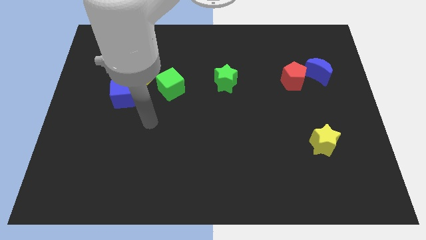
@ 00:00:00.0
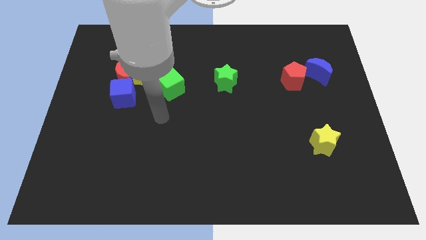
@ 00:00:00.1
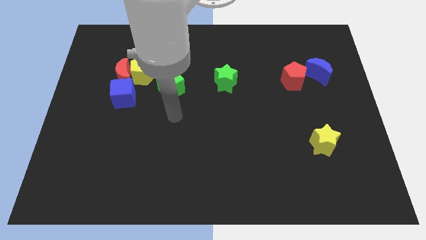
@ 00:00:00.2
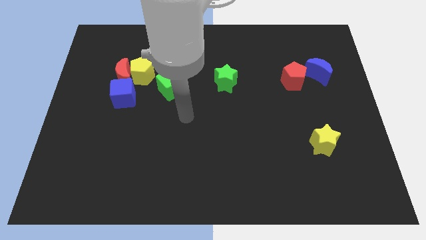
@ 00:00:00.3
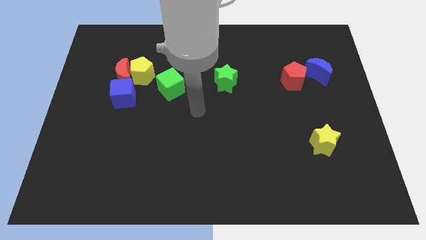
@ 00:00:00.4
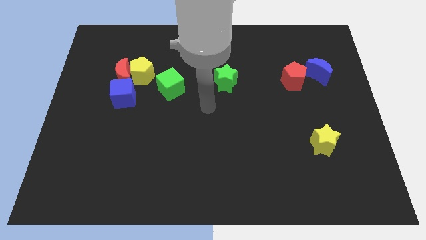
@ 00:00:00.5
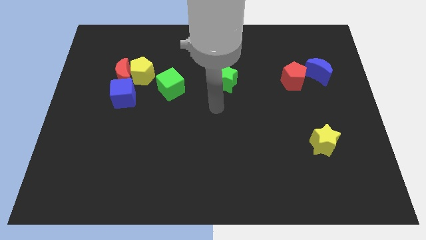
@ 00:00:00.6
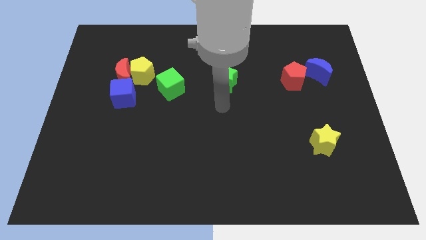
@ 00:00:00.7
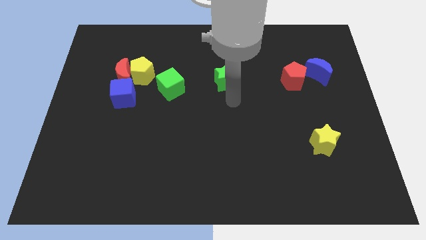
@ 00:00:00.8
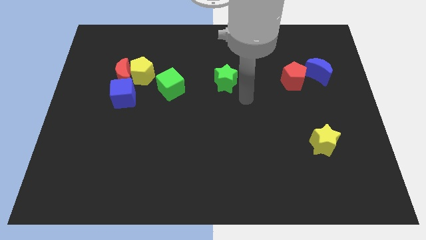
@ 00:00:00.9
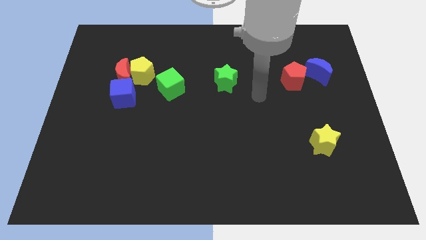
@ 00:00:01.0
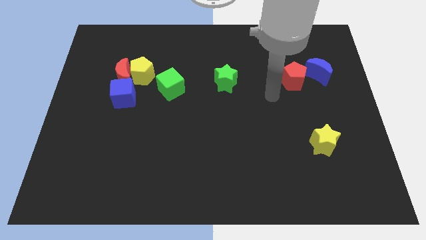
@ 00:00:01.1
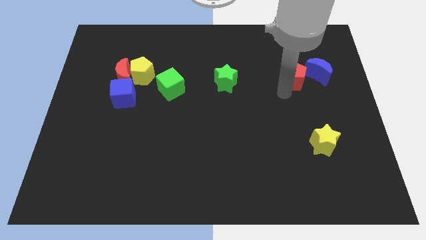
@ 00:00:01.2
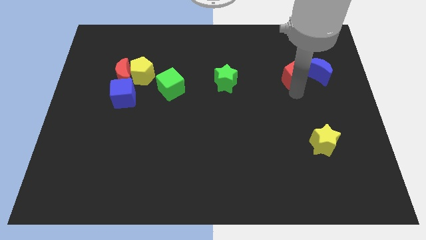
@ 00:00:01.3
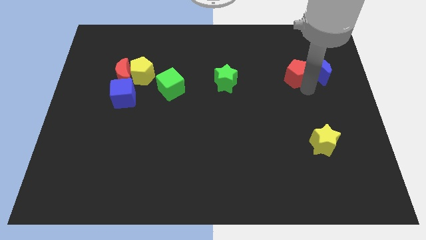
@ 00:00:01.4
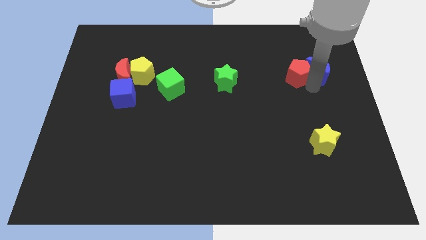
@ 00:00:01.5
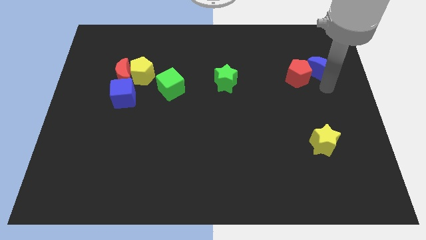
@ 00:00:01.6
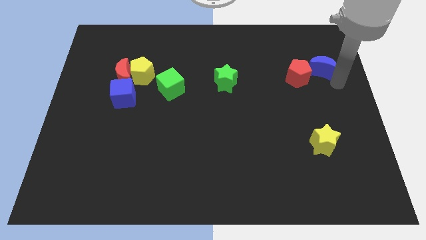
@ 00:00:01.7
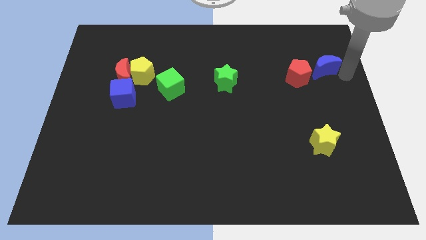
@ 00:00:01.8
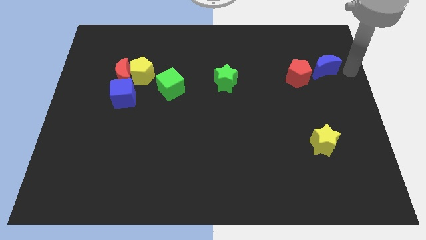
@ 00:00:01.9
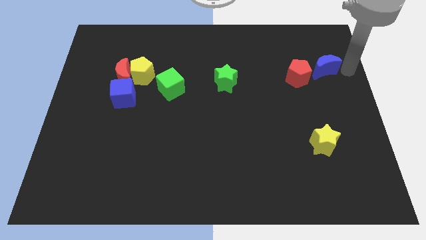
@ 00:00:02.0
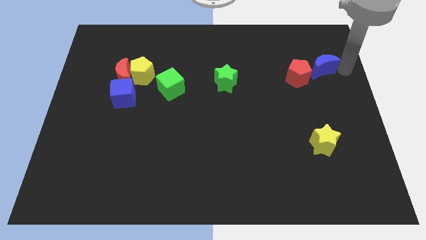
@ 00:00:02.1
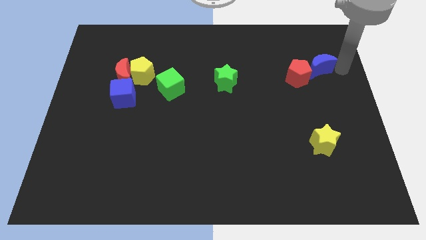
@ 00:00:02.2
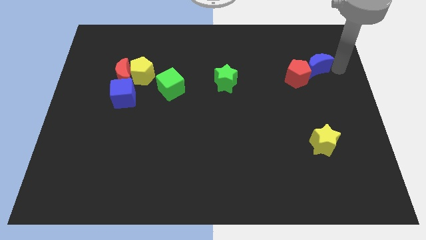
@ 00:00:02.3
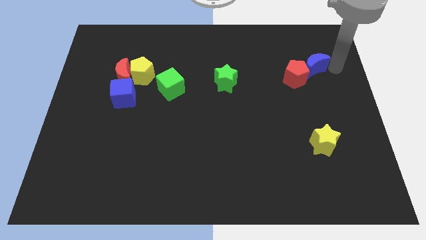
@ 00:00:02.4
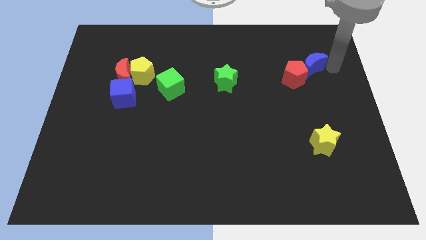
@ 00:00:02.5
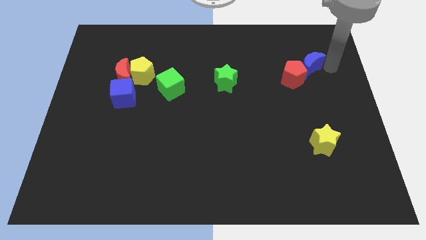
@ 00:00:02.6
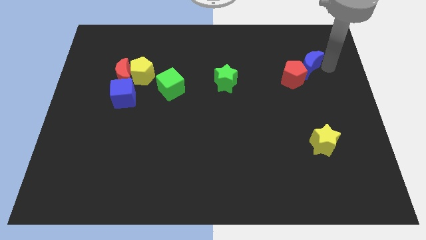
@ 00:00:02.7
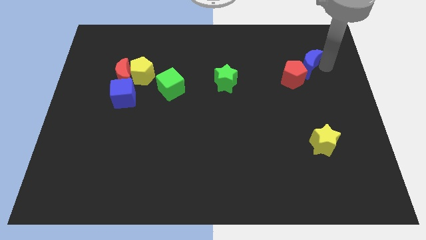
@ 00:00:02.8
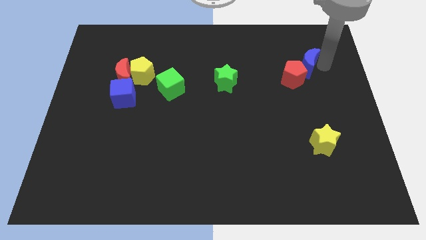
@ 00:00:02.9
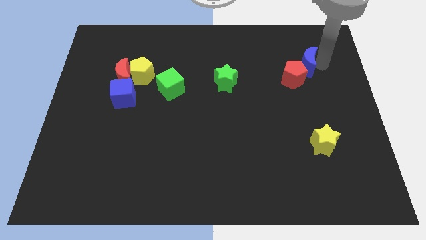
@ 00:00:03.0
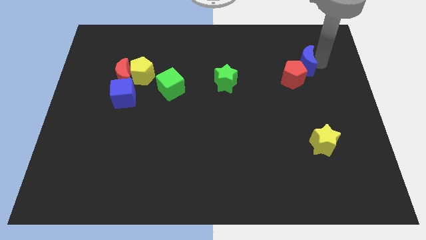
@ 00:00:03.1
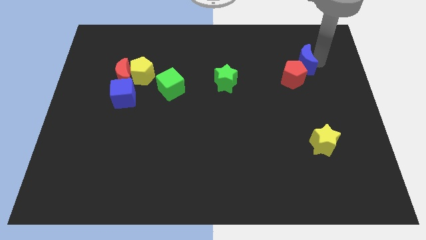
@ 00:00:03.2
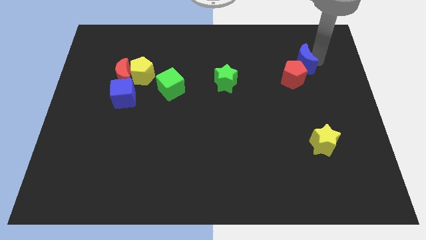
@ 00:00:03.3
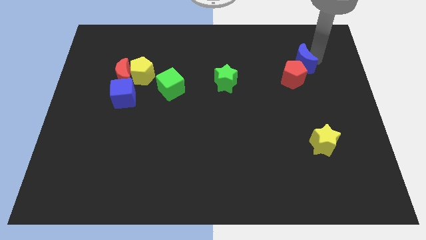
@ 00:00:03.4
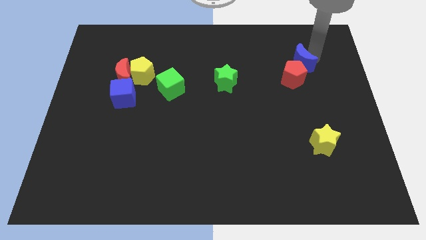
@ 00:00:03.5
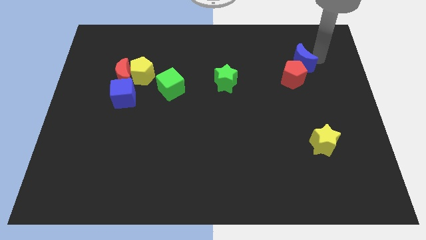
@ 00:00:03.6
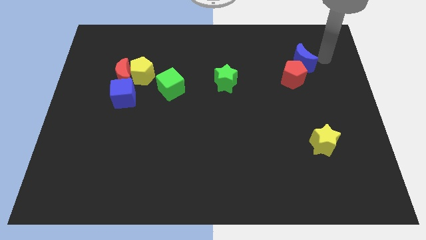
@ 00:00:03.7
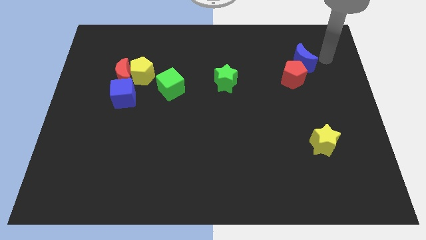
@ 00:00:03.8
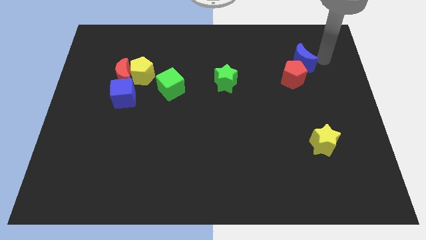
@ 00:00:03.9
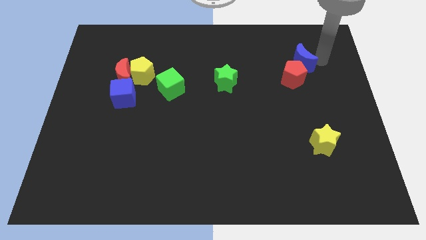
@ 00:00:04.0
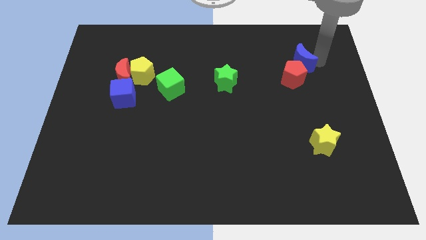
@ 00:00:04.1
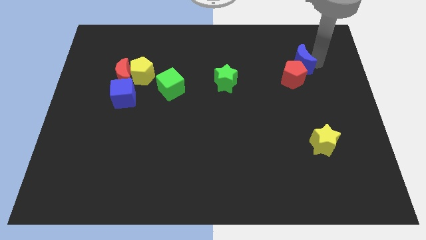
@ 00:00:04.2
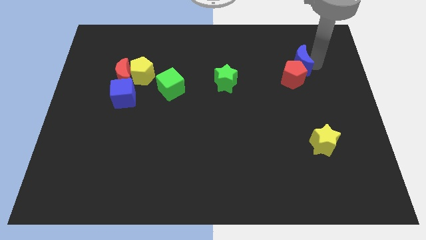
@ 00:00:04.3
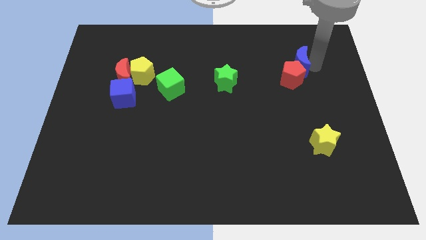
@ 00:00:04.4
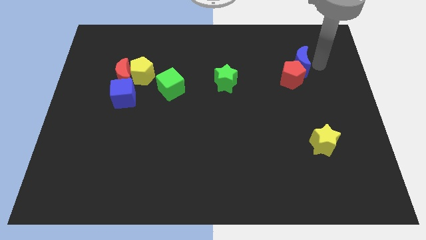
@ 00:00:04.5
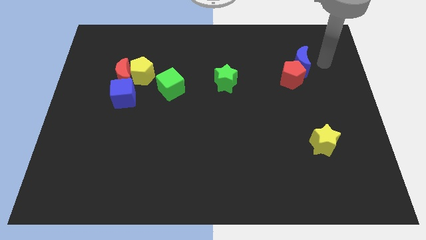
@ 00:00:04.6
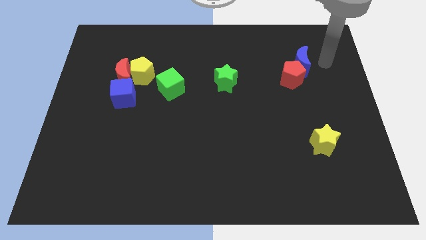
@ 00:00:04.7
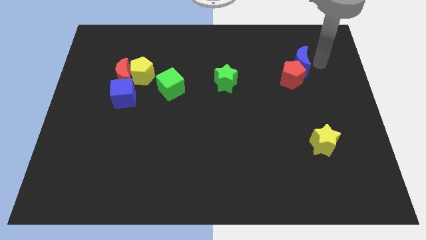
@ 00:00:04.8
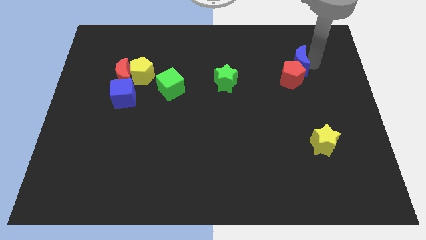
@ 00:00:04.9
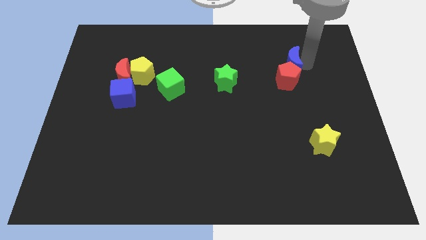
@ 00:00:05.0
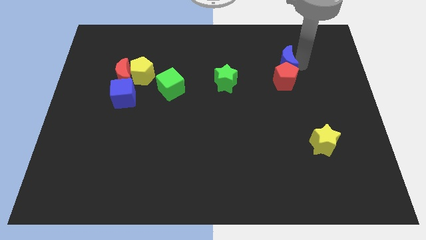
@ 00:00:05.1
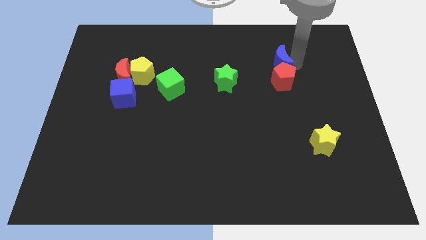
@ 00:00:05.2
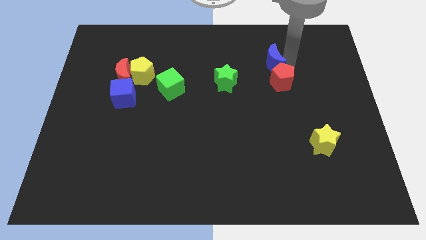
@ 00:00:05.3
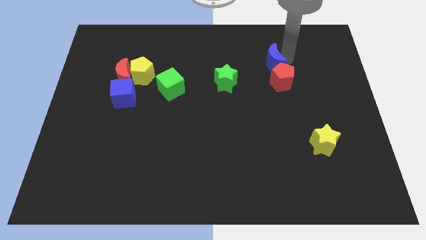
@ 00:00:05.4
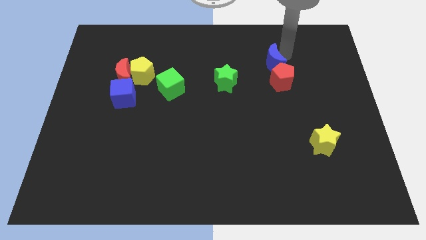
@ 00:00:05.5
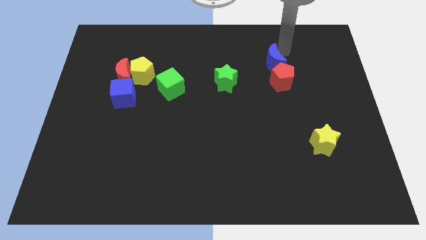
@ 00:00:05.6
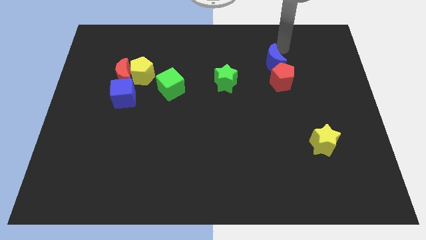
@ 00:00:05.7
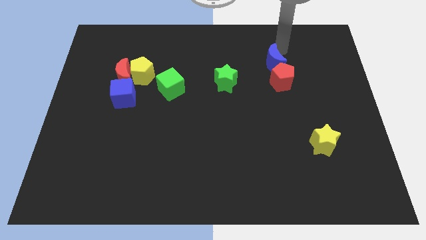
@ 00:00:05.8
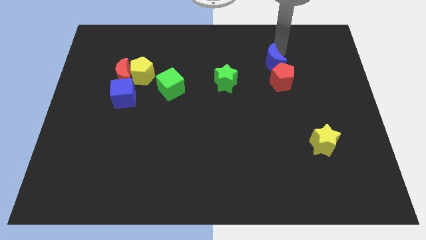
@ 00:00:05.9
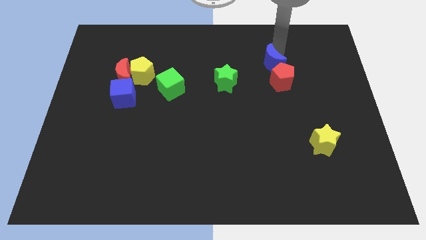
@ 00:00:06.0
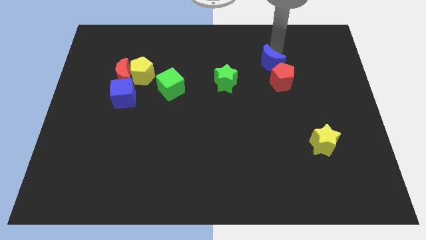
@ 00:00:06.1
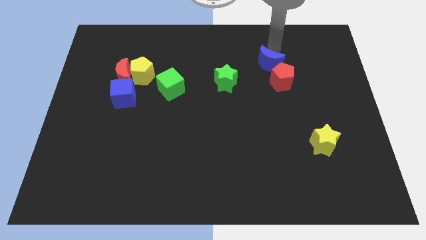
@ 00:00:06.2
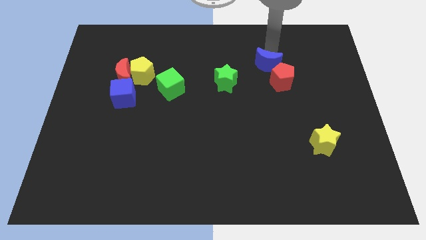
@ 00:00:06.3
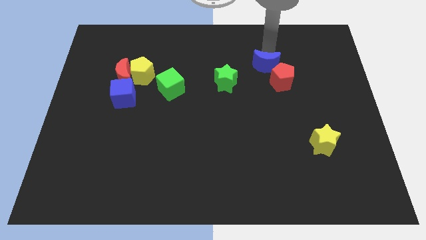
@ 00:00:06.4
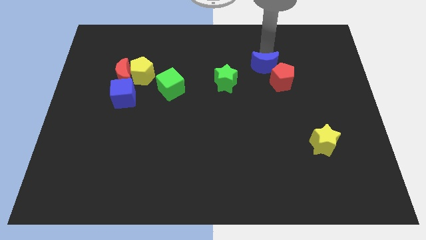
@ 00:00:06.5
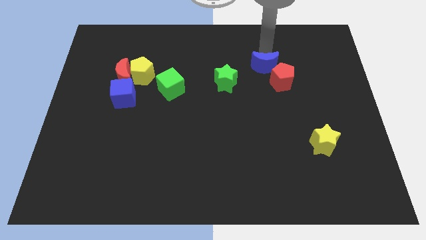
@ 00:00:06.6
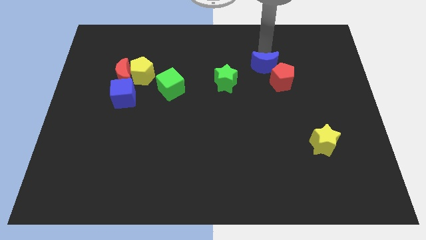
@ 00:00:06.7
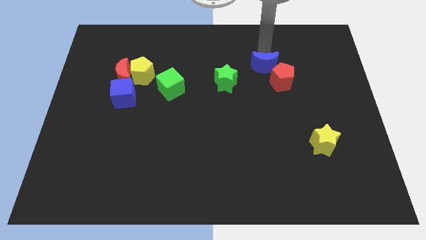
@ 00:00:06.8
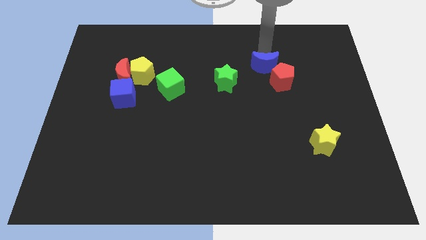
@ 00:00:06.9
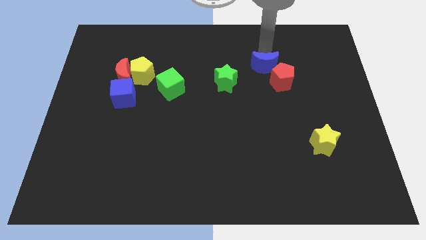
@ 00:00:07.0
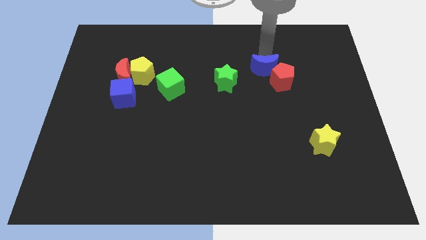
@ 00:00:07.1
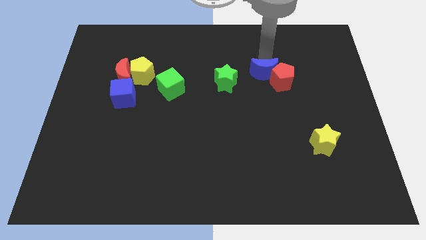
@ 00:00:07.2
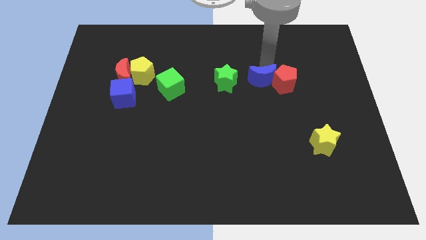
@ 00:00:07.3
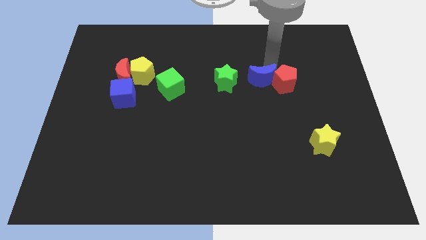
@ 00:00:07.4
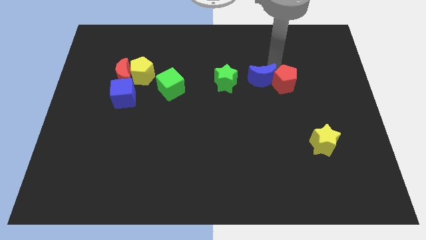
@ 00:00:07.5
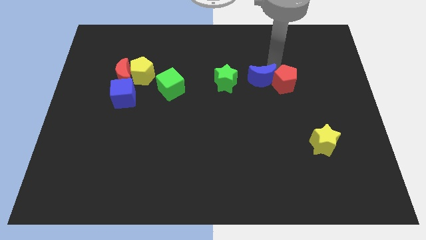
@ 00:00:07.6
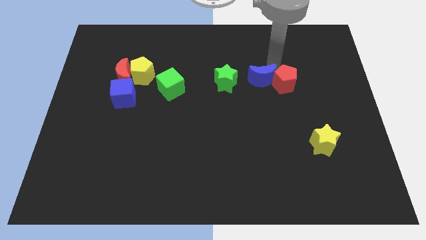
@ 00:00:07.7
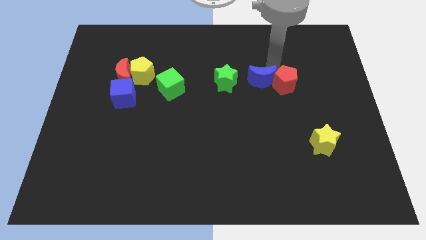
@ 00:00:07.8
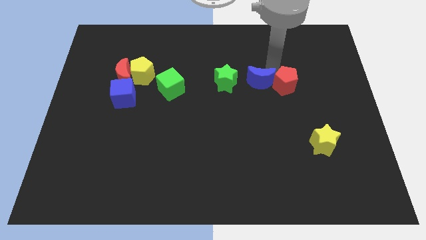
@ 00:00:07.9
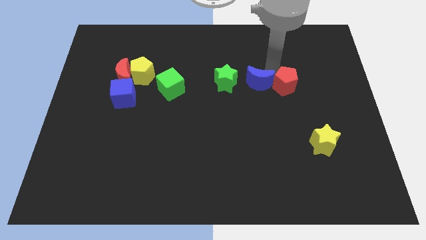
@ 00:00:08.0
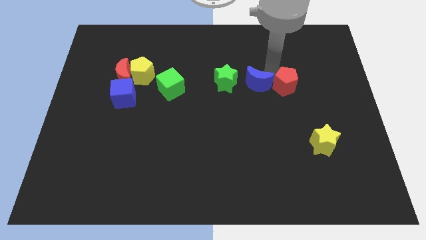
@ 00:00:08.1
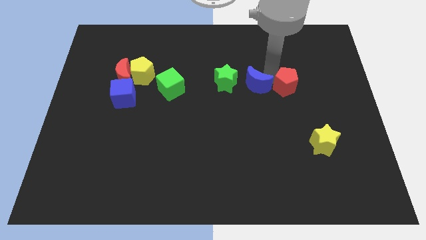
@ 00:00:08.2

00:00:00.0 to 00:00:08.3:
put the blue moon diagonally down and to the right of the green star
